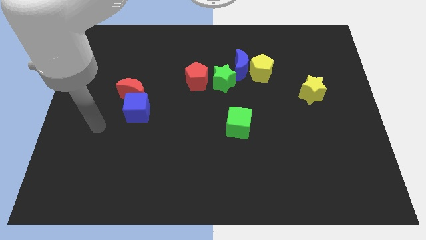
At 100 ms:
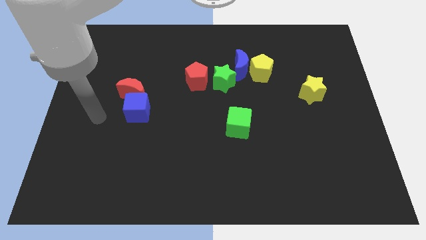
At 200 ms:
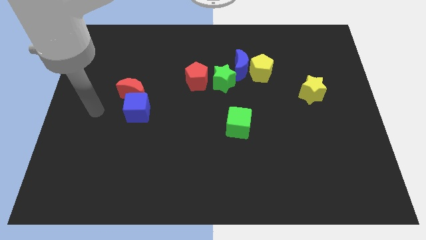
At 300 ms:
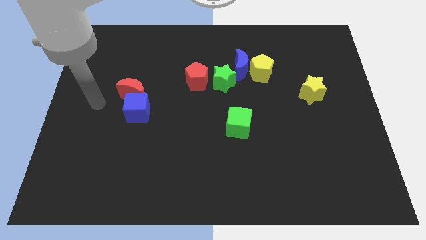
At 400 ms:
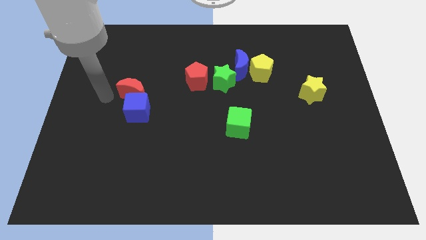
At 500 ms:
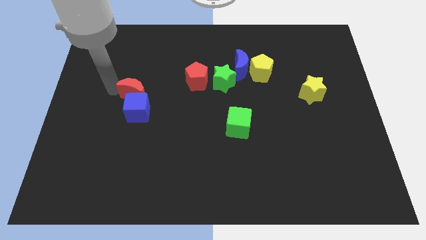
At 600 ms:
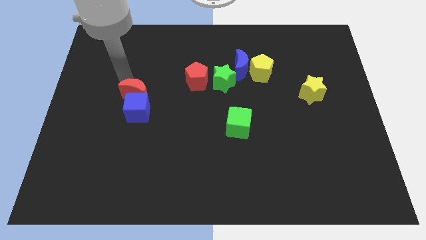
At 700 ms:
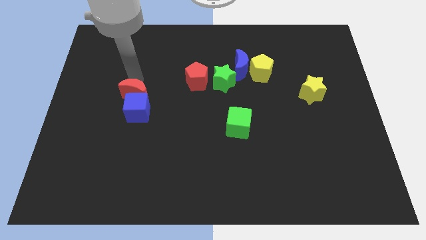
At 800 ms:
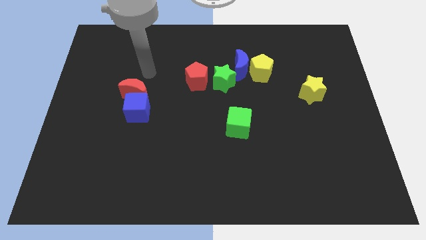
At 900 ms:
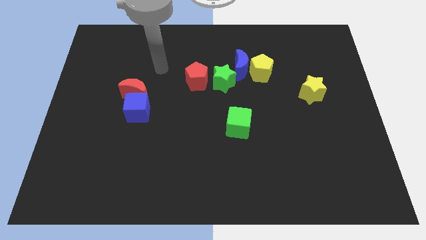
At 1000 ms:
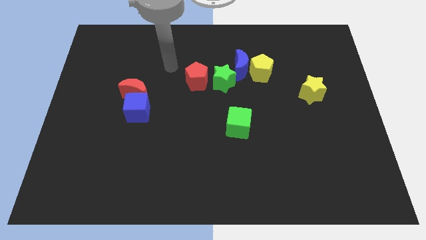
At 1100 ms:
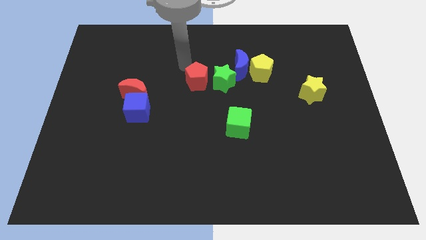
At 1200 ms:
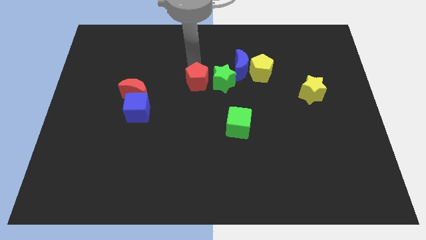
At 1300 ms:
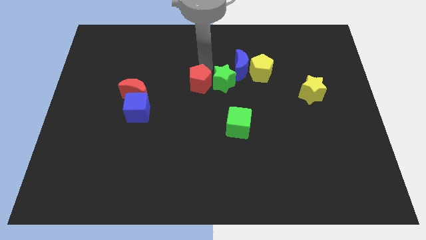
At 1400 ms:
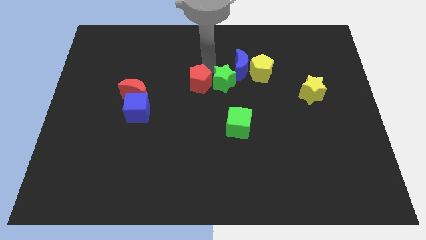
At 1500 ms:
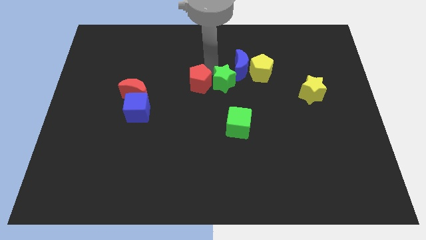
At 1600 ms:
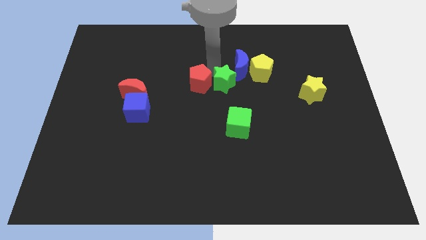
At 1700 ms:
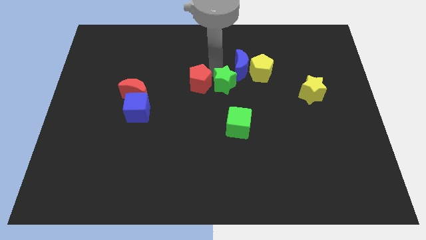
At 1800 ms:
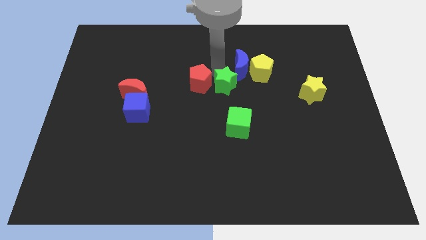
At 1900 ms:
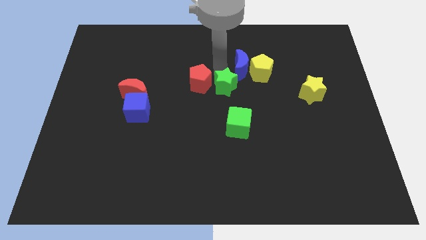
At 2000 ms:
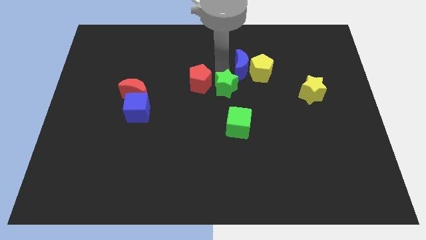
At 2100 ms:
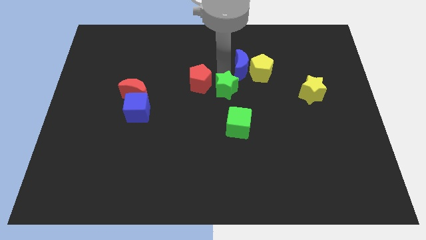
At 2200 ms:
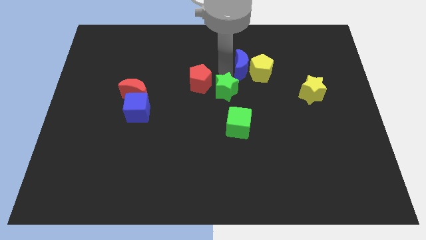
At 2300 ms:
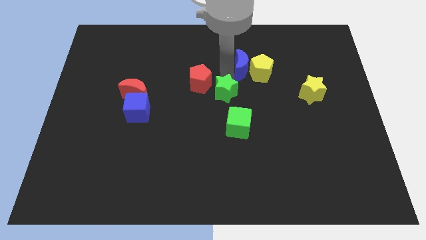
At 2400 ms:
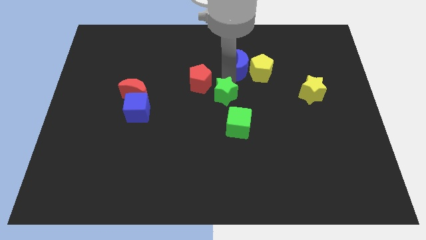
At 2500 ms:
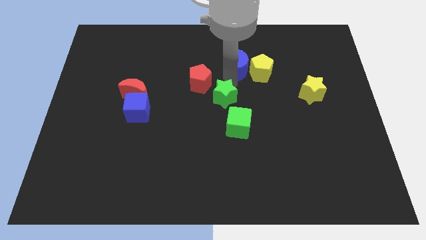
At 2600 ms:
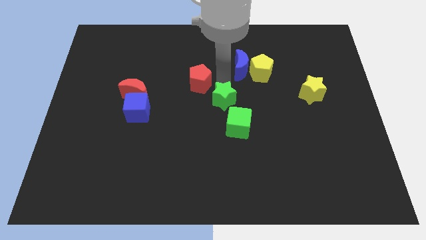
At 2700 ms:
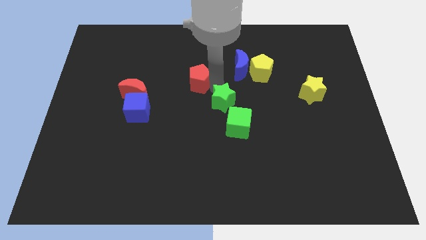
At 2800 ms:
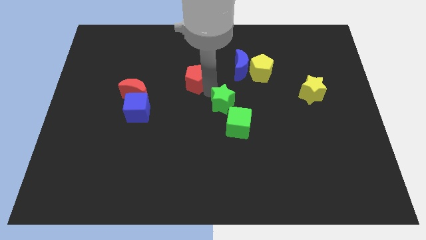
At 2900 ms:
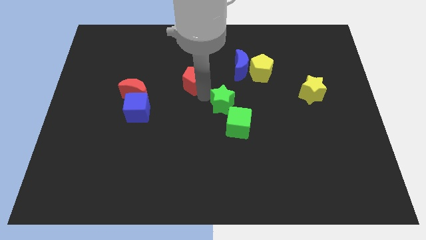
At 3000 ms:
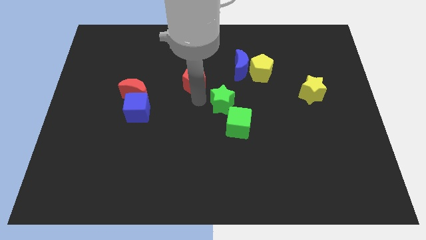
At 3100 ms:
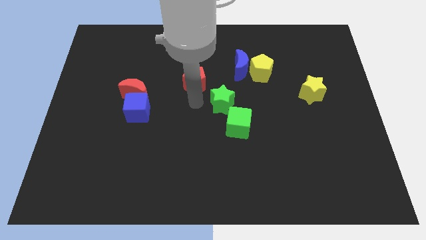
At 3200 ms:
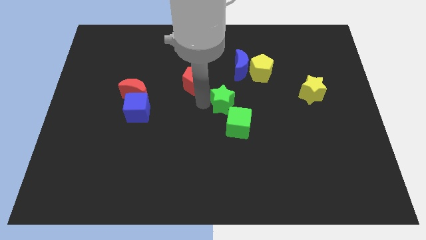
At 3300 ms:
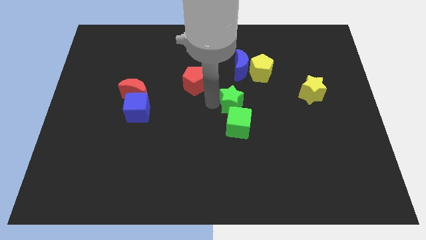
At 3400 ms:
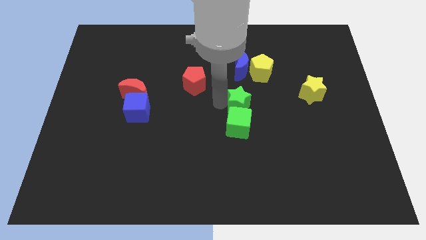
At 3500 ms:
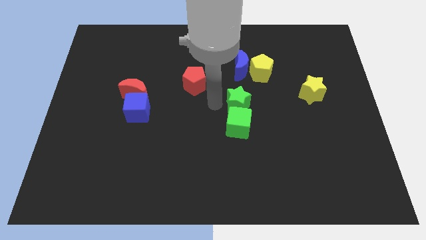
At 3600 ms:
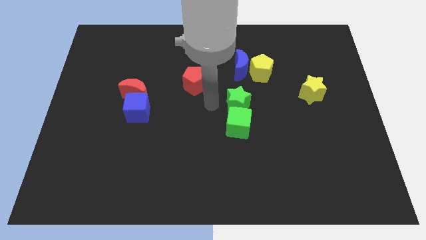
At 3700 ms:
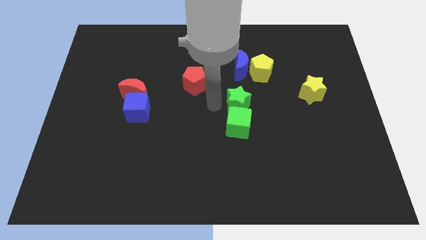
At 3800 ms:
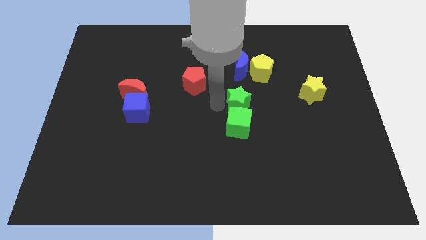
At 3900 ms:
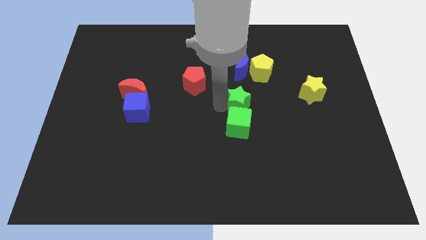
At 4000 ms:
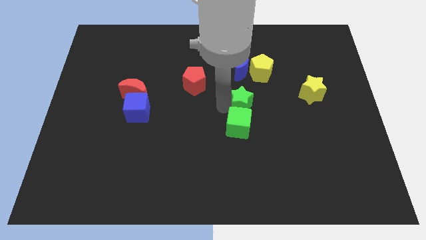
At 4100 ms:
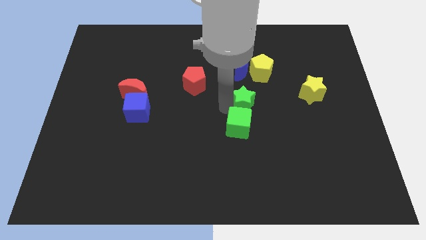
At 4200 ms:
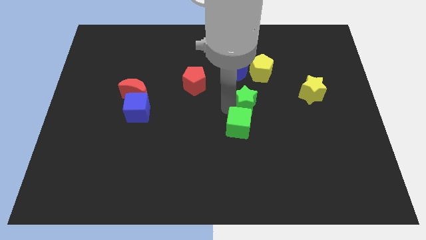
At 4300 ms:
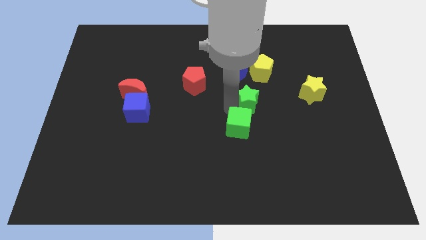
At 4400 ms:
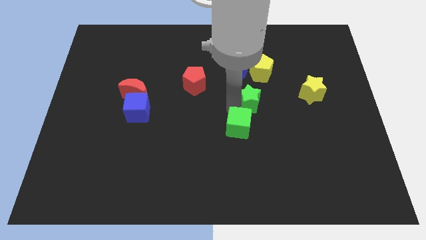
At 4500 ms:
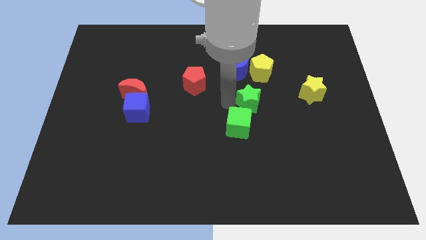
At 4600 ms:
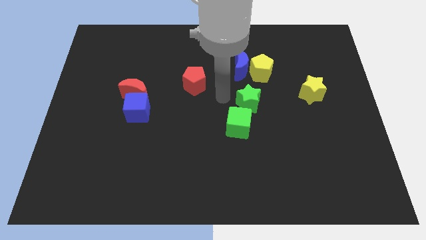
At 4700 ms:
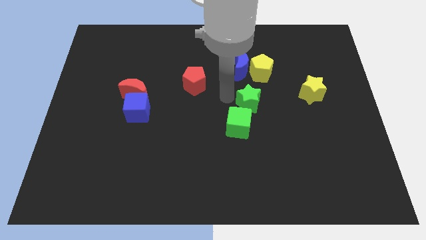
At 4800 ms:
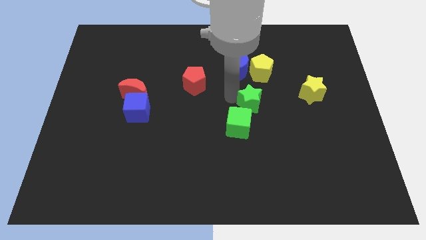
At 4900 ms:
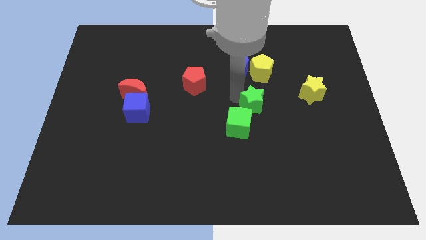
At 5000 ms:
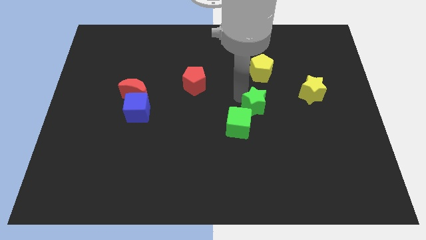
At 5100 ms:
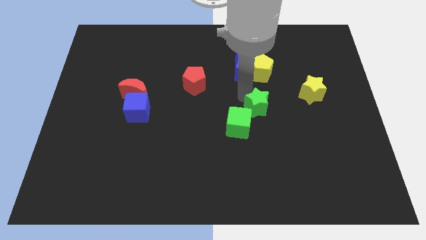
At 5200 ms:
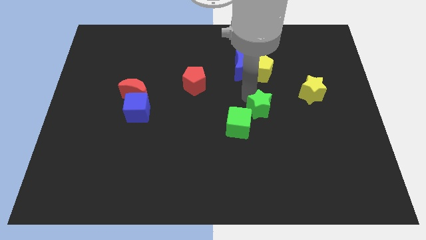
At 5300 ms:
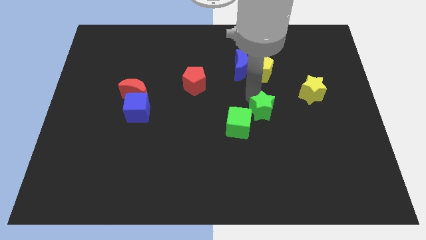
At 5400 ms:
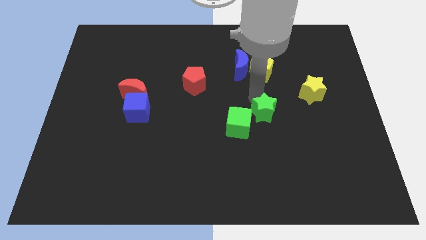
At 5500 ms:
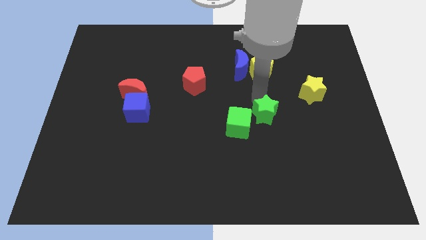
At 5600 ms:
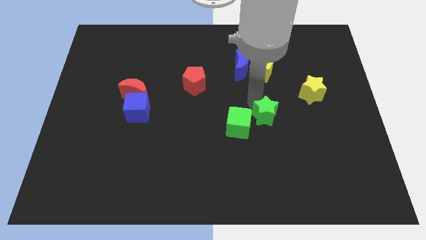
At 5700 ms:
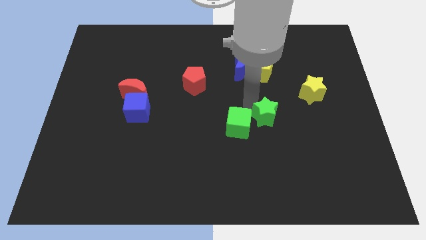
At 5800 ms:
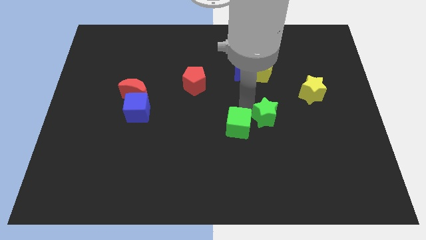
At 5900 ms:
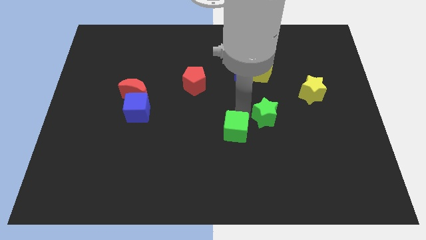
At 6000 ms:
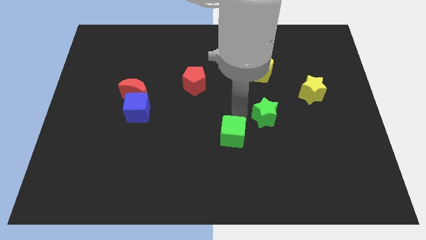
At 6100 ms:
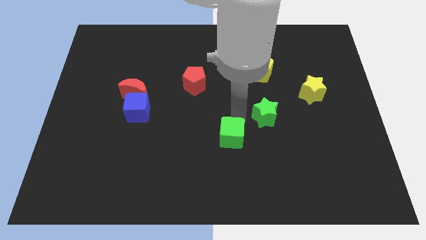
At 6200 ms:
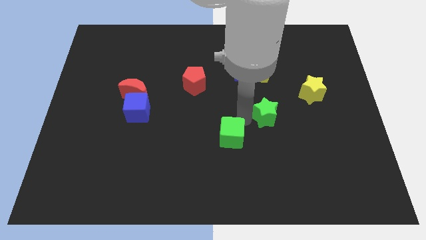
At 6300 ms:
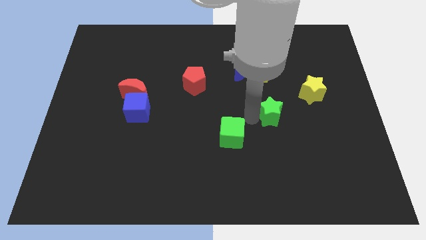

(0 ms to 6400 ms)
move the green star to the bottom left side of the yellow star
